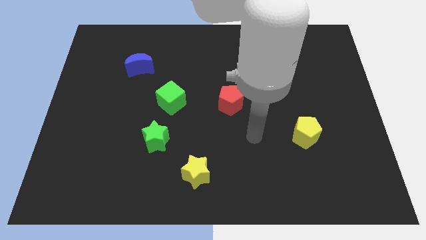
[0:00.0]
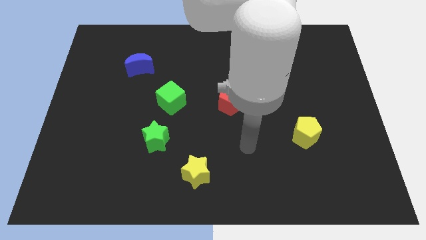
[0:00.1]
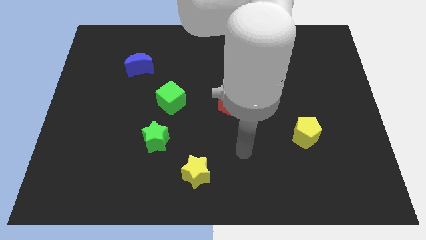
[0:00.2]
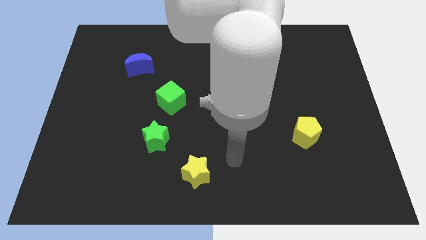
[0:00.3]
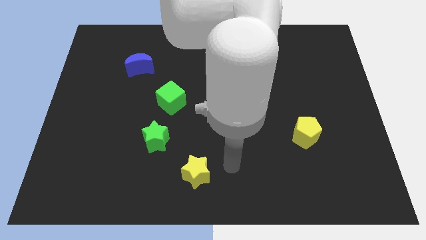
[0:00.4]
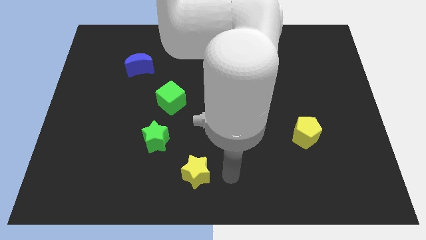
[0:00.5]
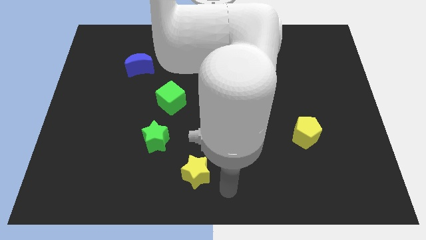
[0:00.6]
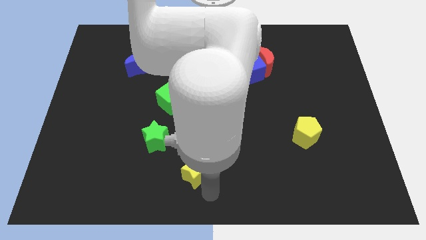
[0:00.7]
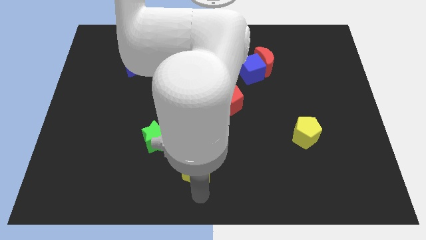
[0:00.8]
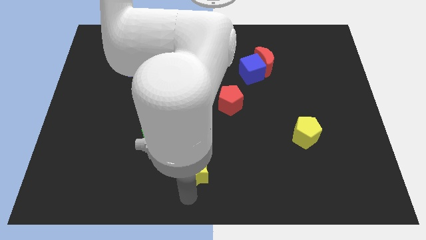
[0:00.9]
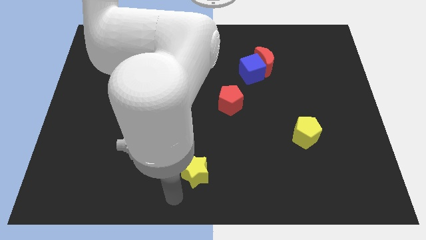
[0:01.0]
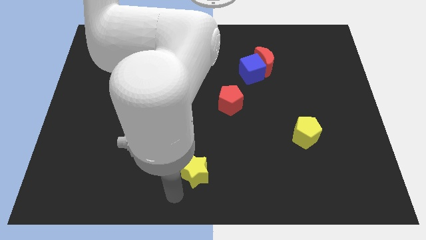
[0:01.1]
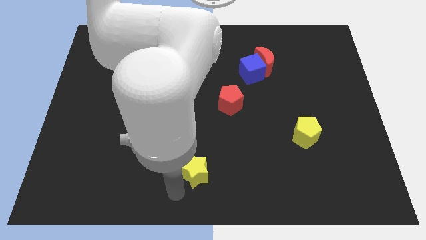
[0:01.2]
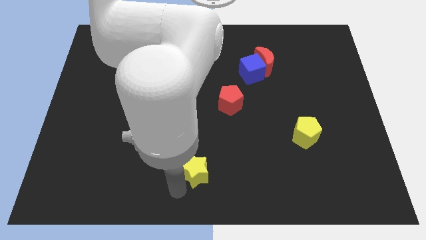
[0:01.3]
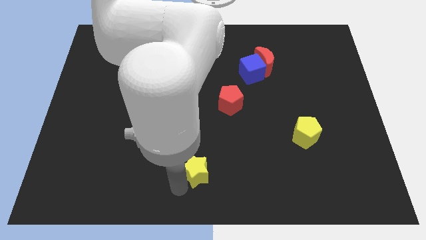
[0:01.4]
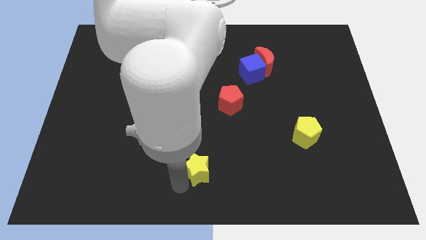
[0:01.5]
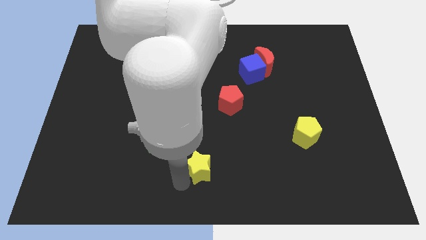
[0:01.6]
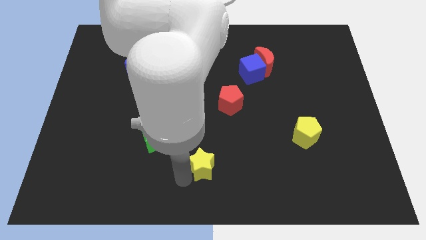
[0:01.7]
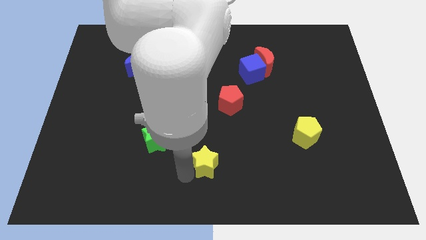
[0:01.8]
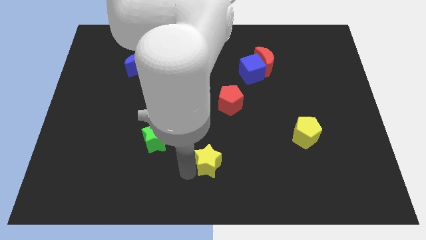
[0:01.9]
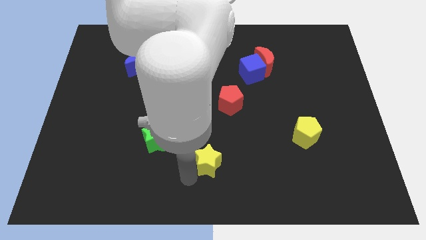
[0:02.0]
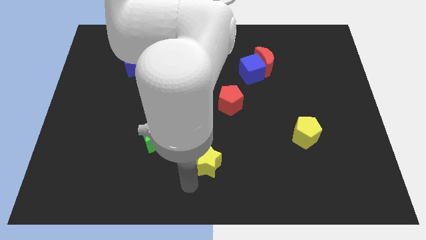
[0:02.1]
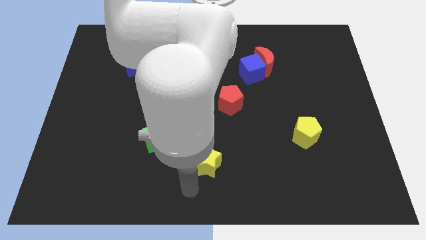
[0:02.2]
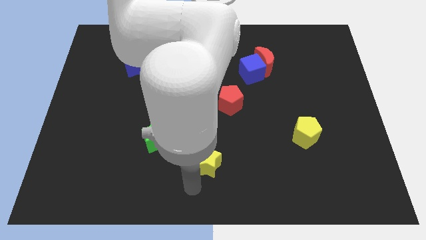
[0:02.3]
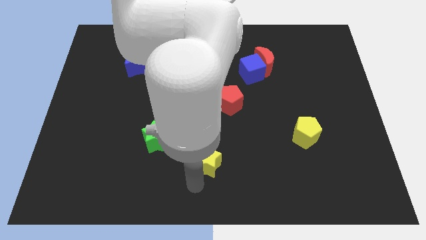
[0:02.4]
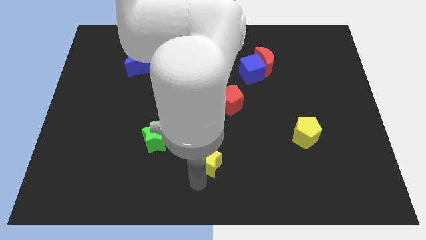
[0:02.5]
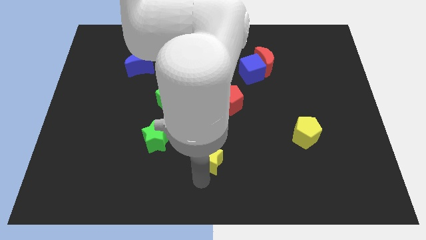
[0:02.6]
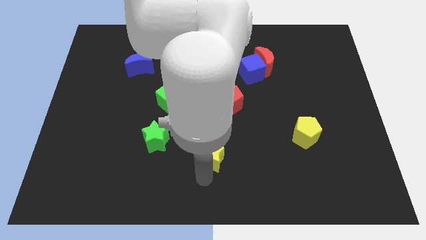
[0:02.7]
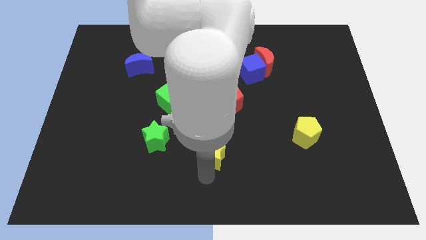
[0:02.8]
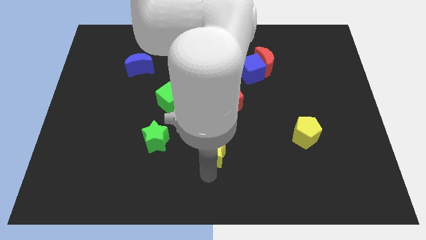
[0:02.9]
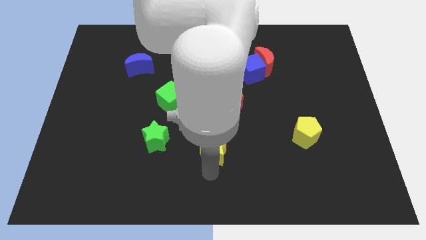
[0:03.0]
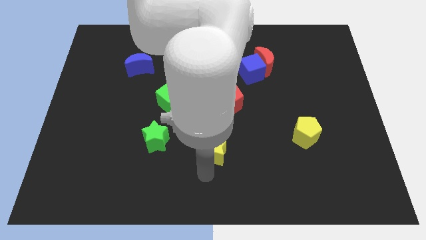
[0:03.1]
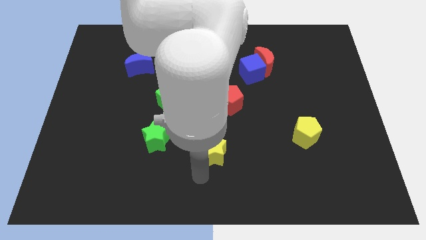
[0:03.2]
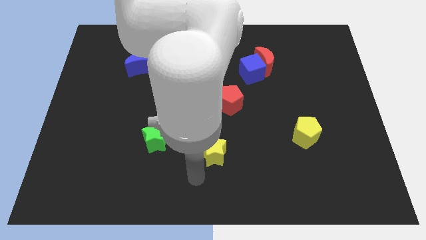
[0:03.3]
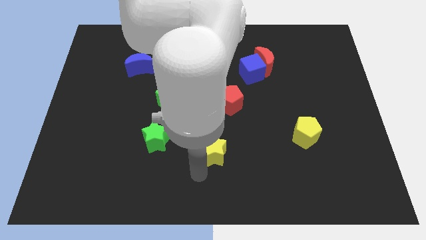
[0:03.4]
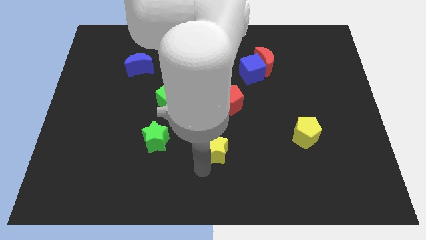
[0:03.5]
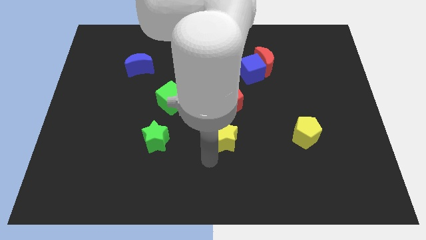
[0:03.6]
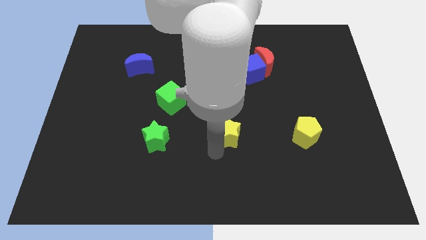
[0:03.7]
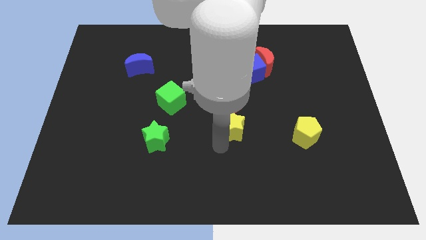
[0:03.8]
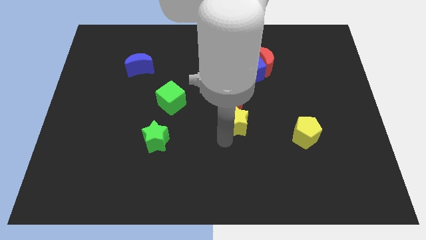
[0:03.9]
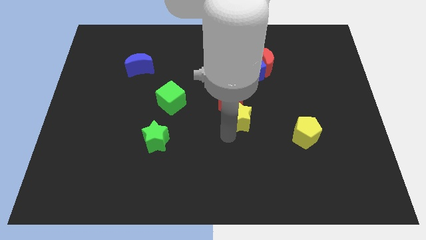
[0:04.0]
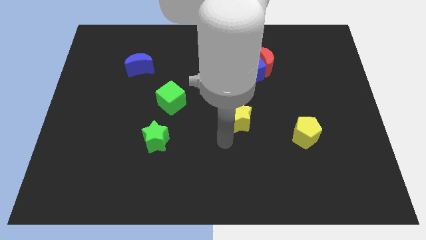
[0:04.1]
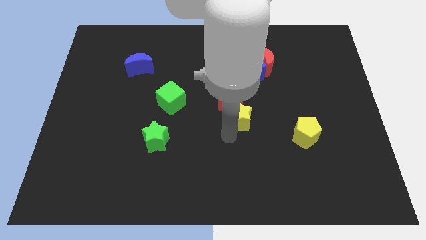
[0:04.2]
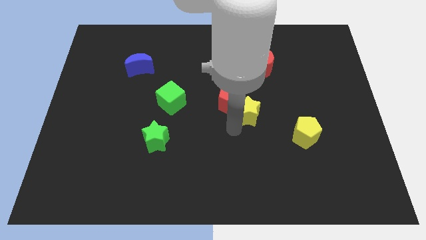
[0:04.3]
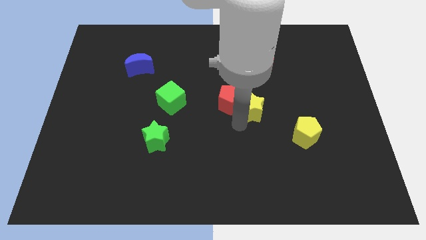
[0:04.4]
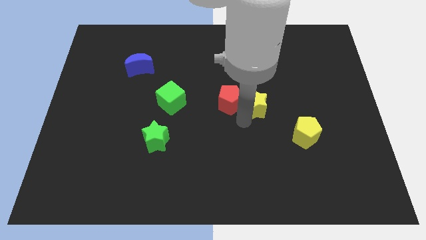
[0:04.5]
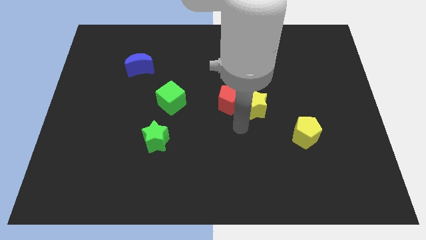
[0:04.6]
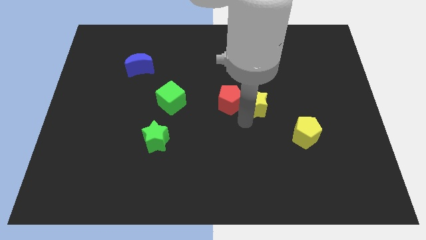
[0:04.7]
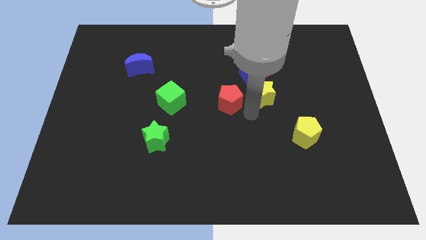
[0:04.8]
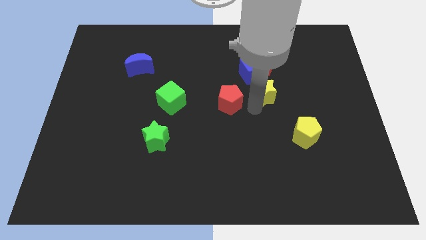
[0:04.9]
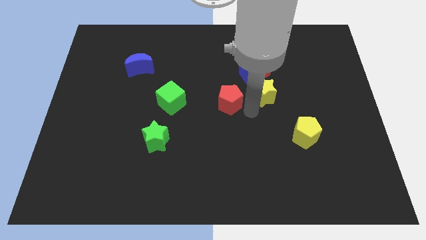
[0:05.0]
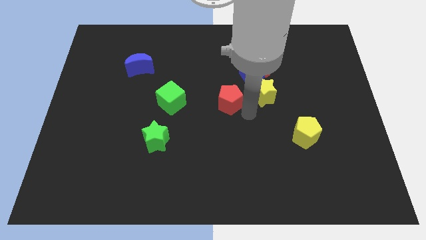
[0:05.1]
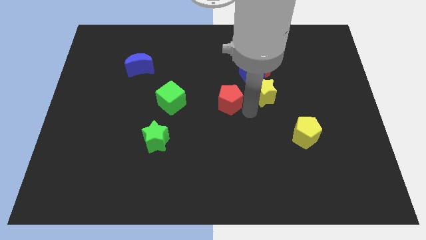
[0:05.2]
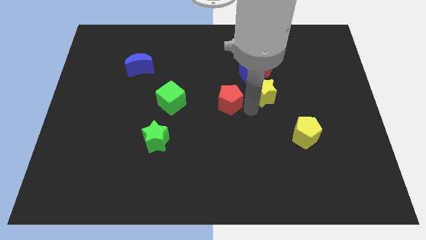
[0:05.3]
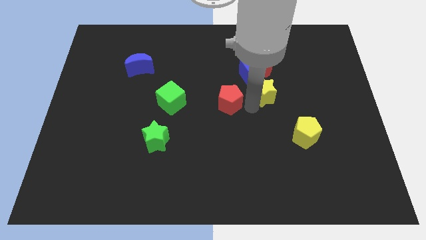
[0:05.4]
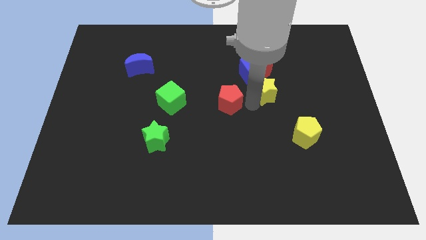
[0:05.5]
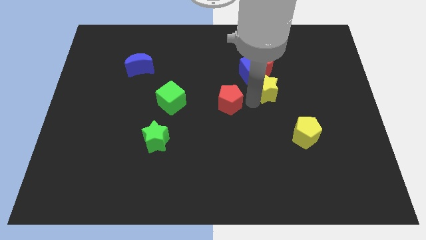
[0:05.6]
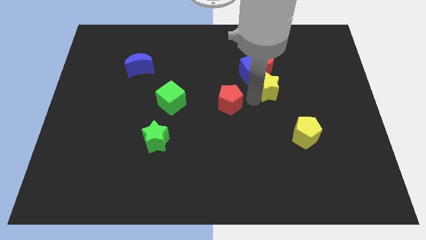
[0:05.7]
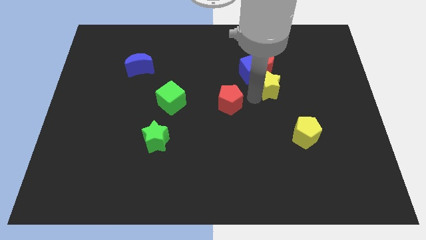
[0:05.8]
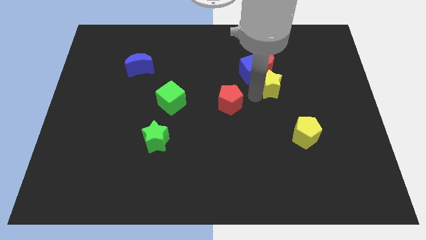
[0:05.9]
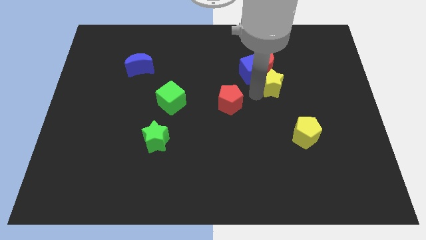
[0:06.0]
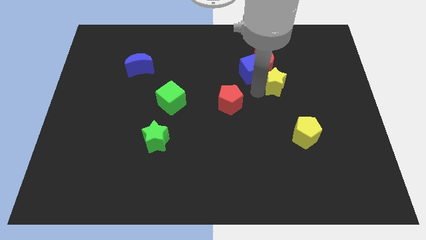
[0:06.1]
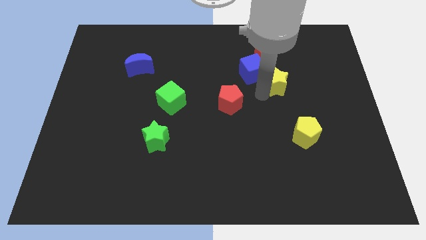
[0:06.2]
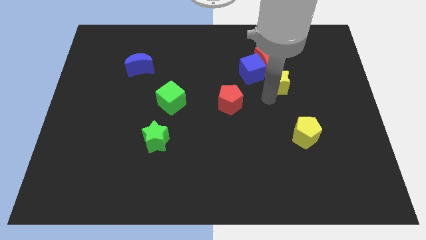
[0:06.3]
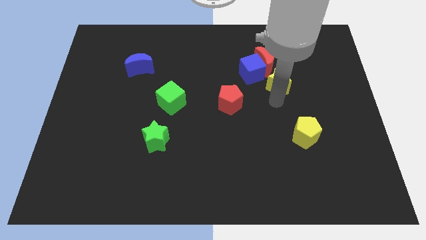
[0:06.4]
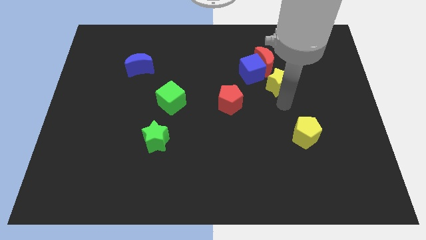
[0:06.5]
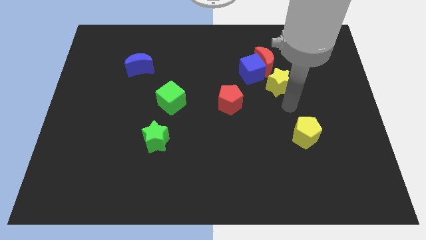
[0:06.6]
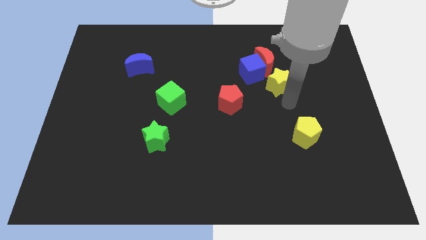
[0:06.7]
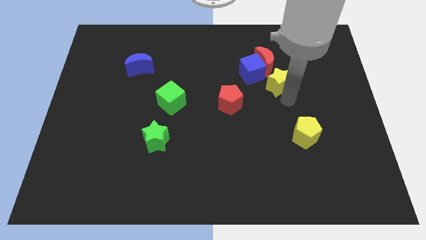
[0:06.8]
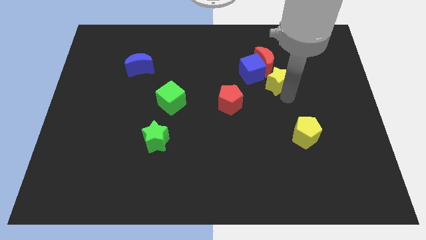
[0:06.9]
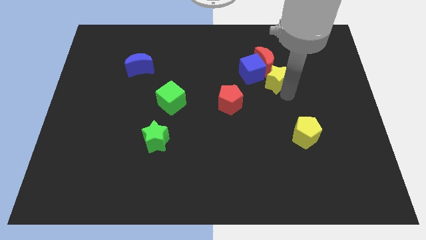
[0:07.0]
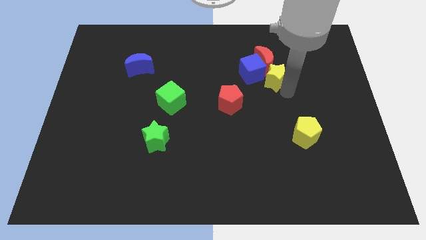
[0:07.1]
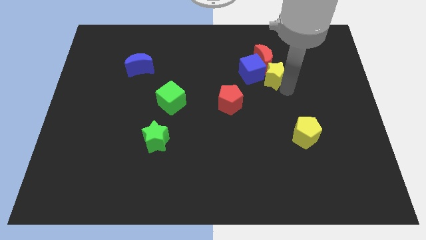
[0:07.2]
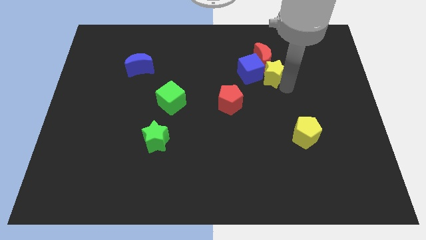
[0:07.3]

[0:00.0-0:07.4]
move the yellow star next to the red moon
